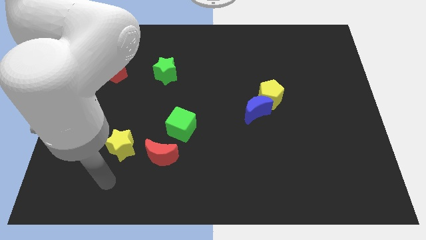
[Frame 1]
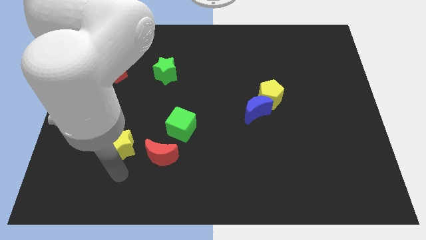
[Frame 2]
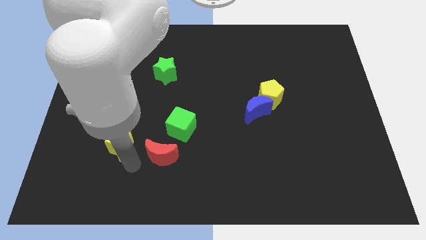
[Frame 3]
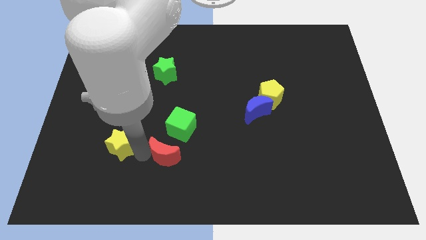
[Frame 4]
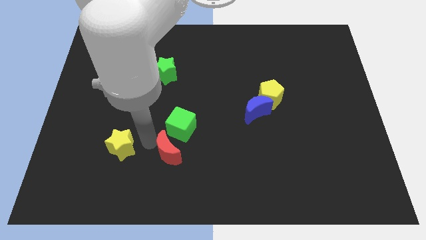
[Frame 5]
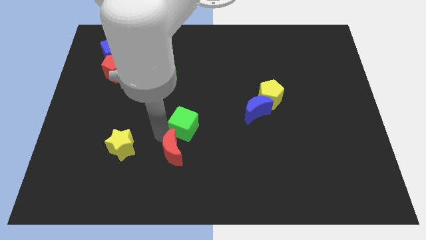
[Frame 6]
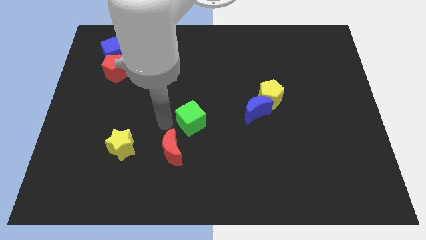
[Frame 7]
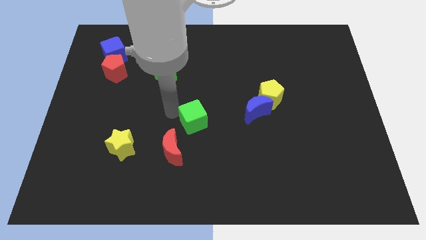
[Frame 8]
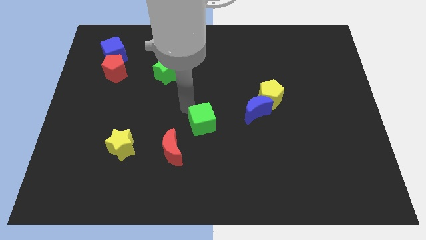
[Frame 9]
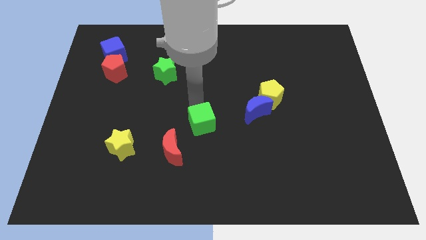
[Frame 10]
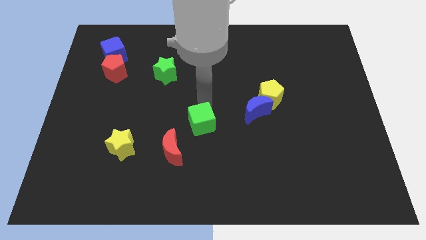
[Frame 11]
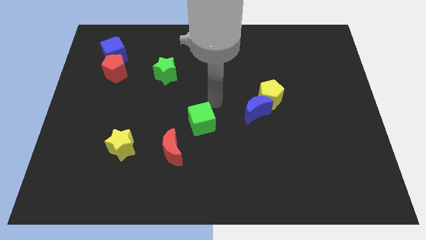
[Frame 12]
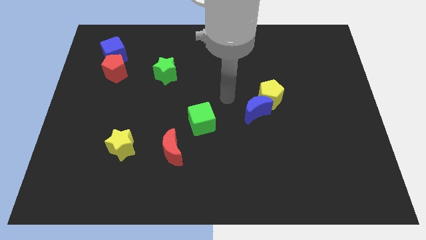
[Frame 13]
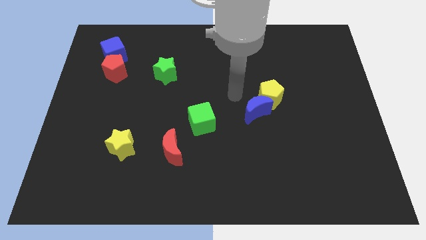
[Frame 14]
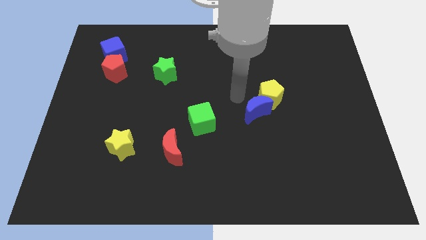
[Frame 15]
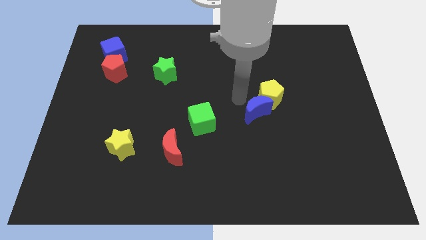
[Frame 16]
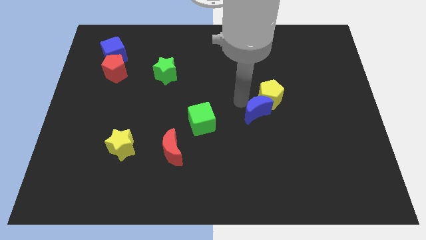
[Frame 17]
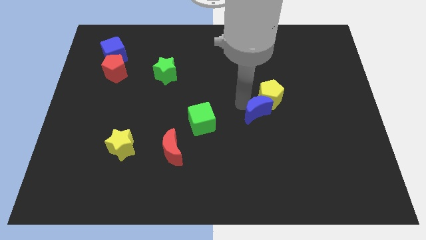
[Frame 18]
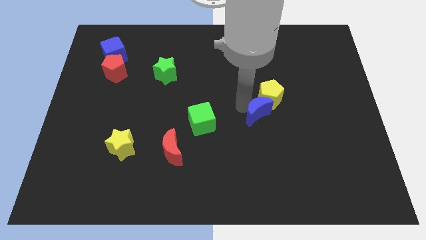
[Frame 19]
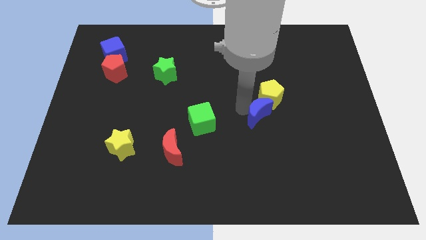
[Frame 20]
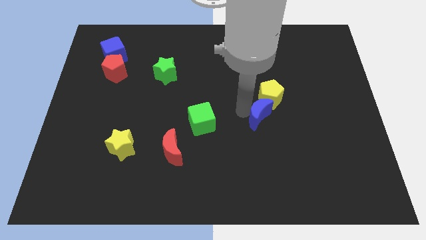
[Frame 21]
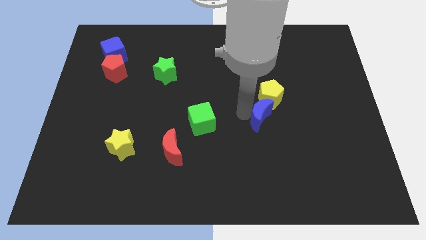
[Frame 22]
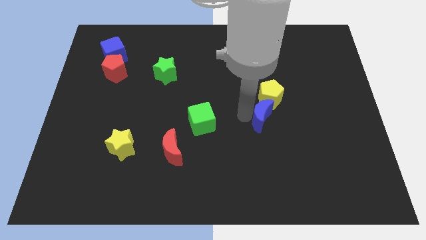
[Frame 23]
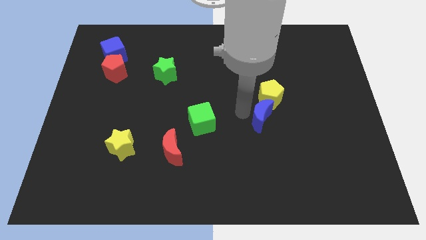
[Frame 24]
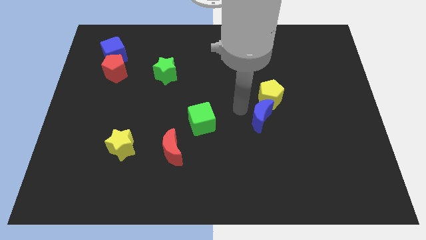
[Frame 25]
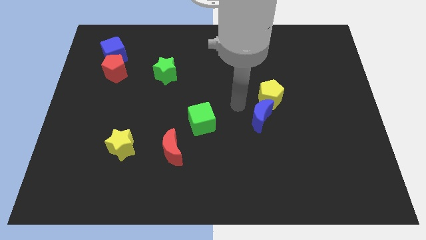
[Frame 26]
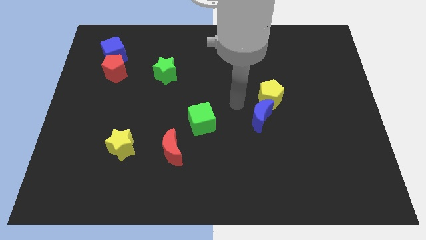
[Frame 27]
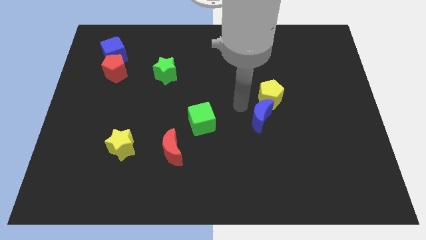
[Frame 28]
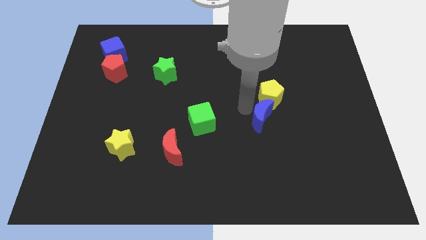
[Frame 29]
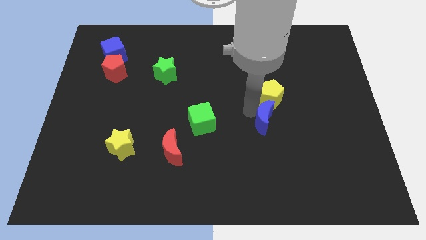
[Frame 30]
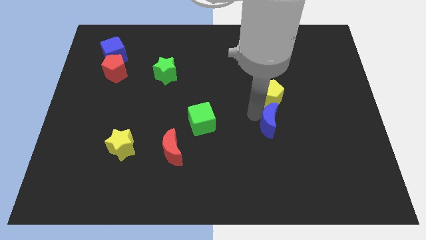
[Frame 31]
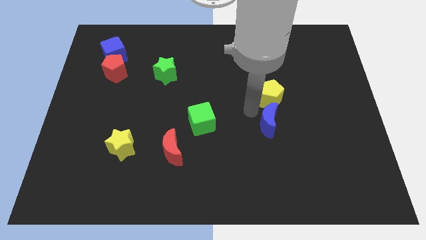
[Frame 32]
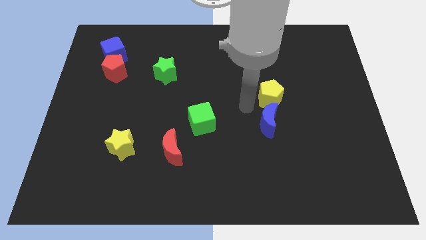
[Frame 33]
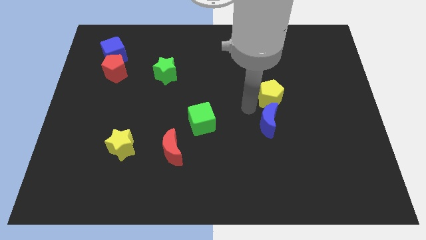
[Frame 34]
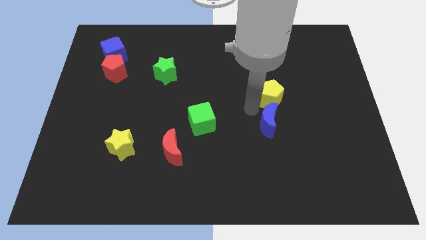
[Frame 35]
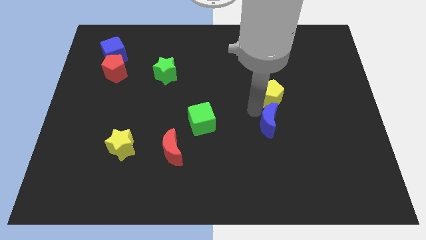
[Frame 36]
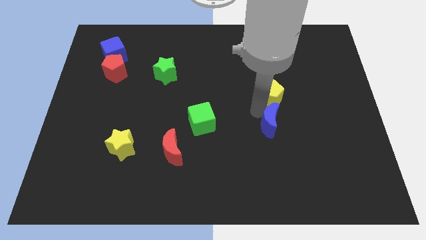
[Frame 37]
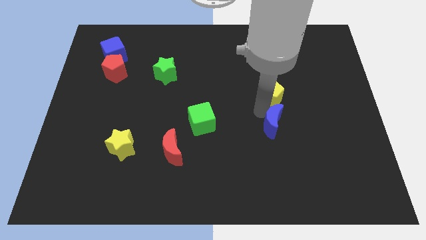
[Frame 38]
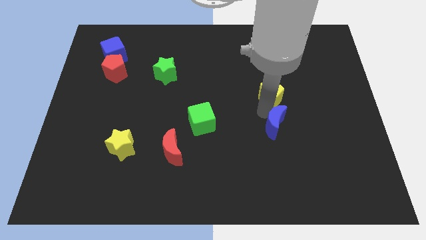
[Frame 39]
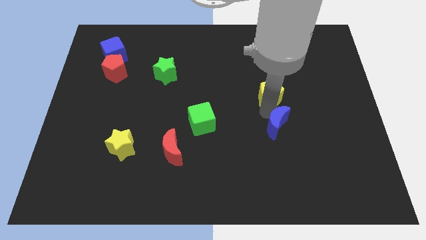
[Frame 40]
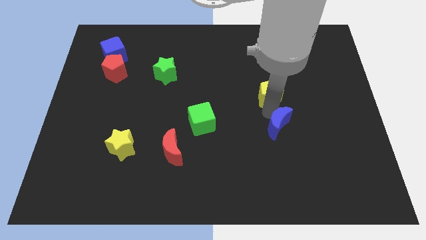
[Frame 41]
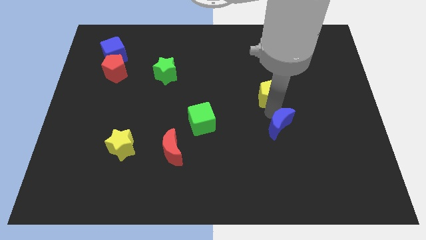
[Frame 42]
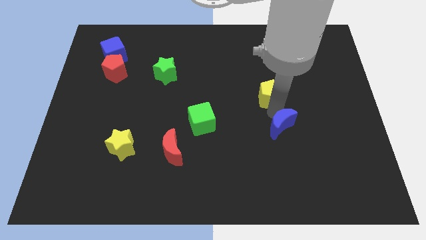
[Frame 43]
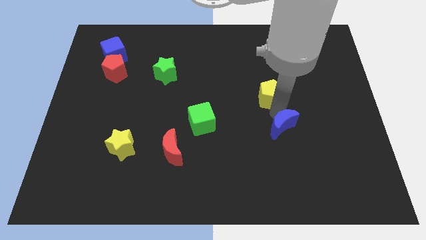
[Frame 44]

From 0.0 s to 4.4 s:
push the blue moon diagonally downwards and right slightly

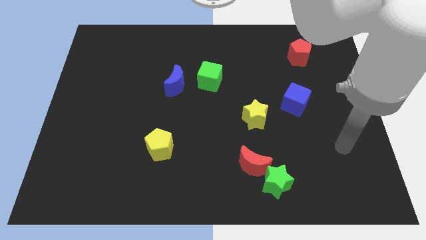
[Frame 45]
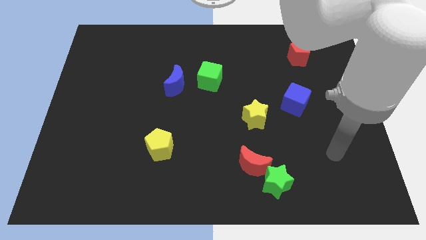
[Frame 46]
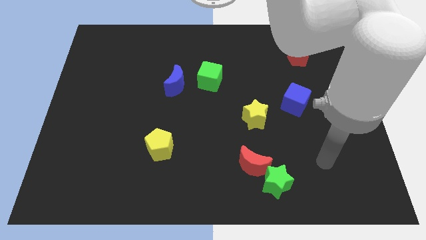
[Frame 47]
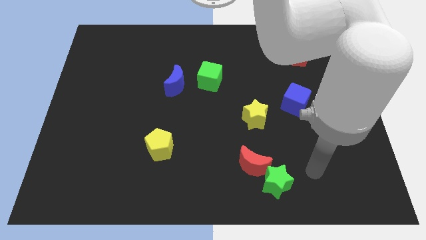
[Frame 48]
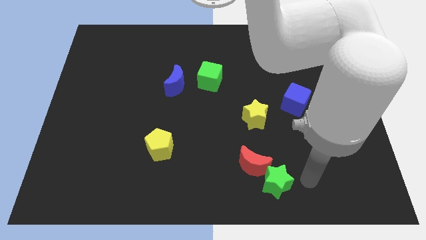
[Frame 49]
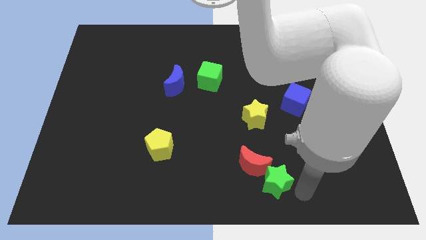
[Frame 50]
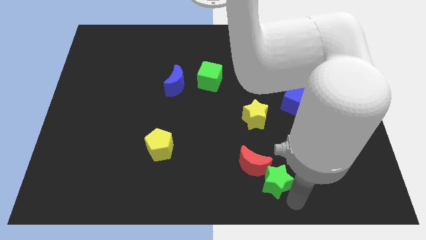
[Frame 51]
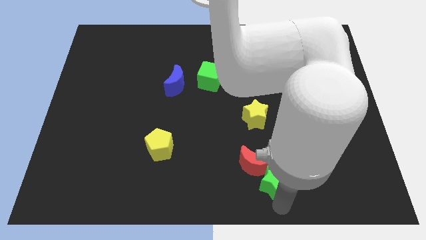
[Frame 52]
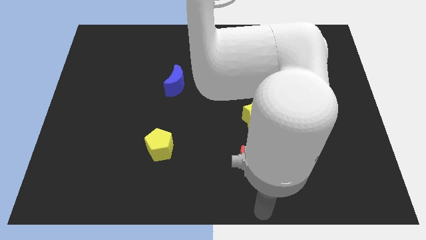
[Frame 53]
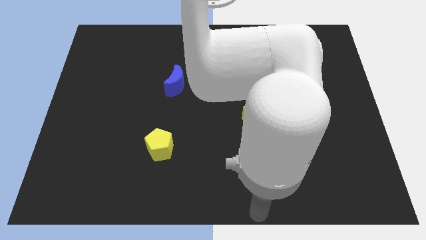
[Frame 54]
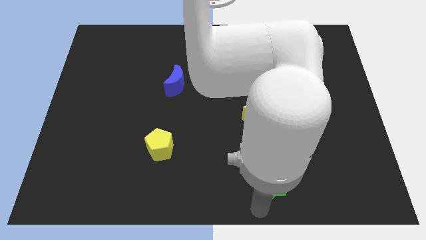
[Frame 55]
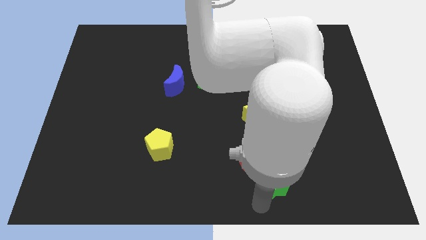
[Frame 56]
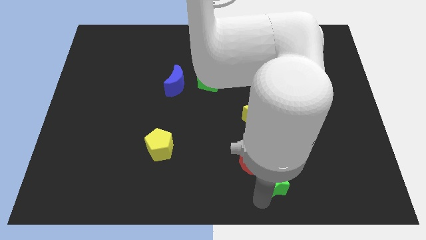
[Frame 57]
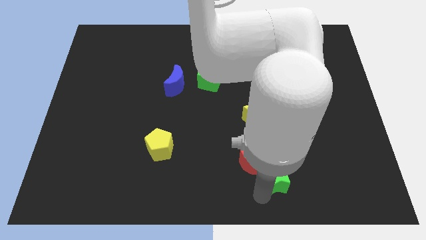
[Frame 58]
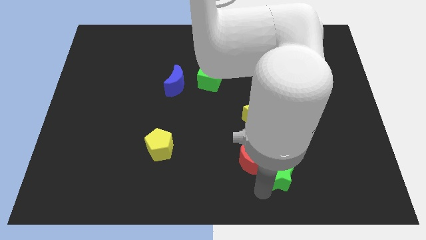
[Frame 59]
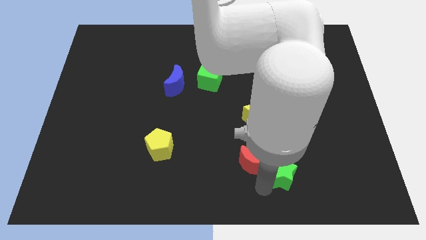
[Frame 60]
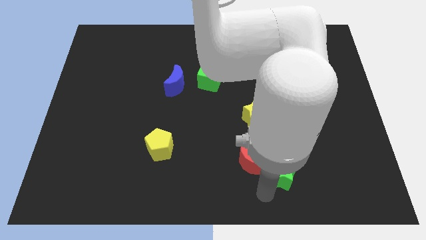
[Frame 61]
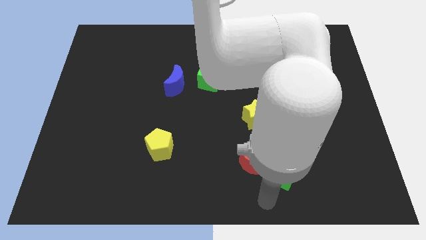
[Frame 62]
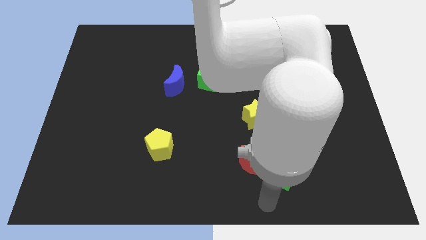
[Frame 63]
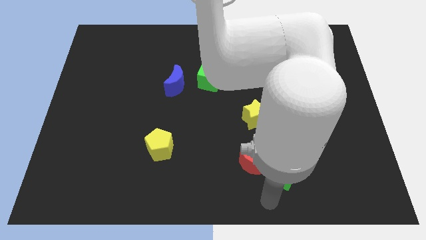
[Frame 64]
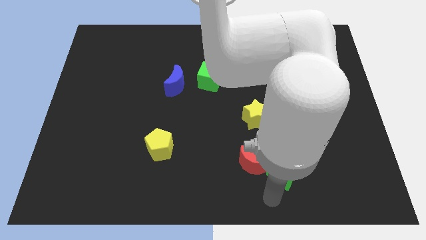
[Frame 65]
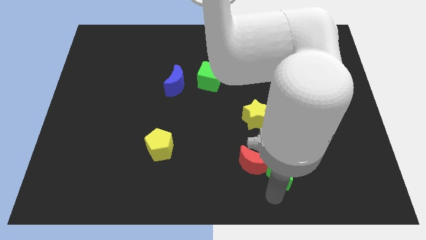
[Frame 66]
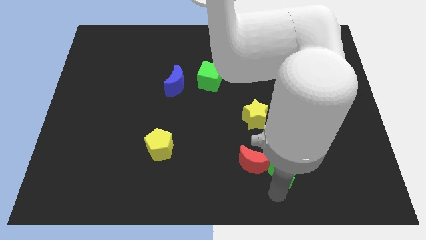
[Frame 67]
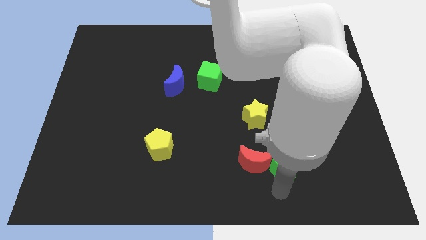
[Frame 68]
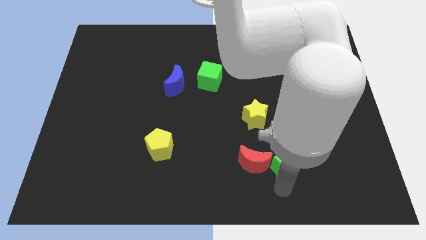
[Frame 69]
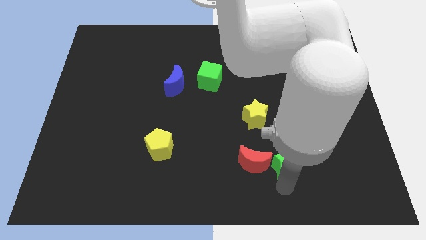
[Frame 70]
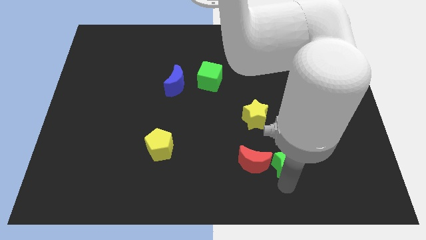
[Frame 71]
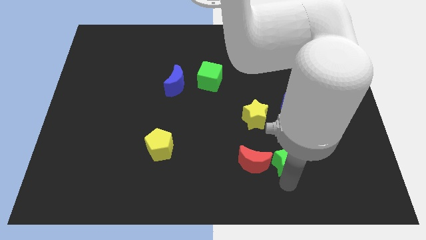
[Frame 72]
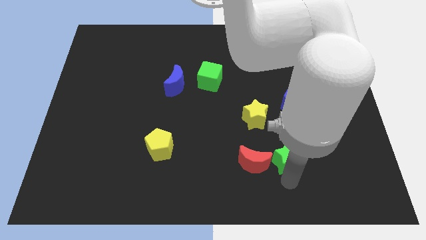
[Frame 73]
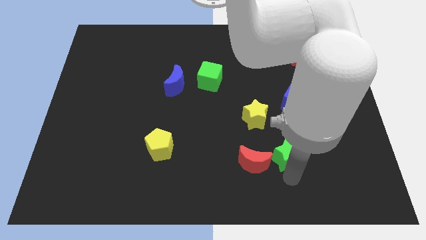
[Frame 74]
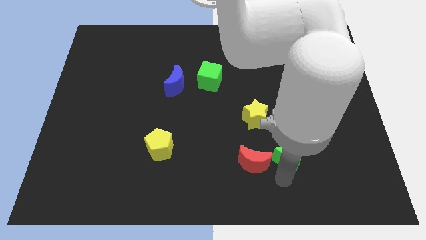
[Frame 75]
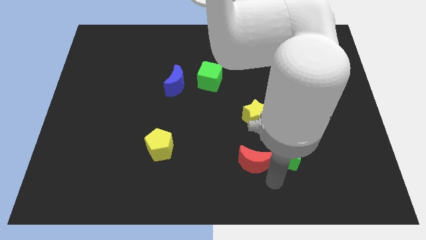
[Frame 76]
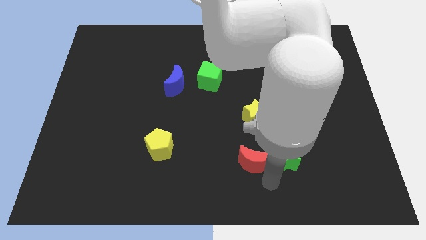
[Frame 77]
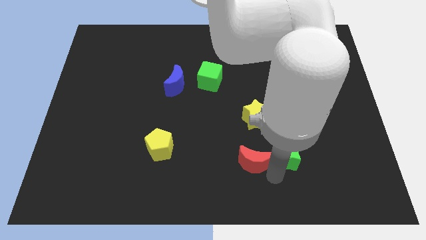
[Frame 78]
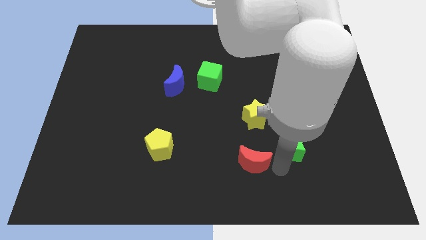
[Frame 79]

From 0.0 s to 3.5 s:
slide the green star upwards and then right somewhat

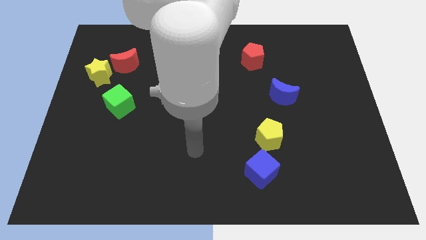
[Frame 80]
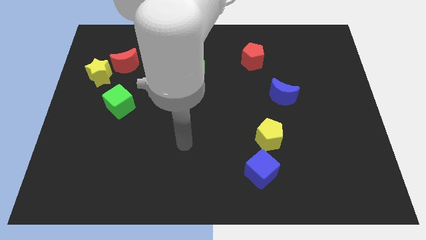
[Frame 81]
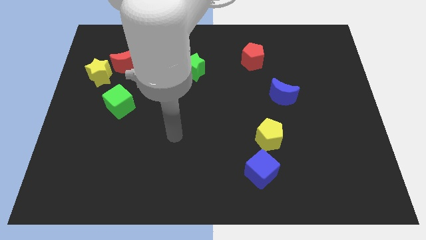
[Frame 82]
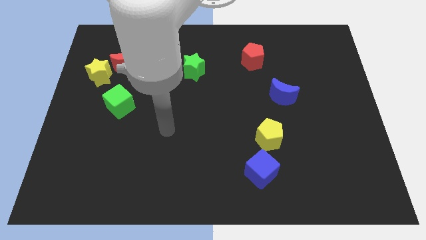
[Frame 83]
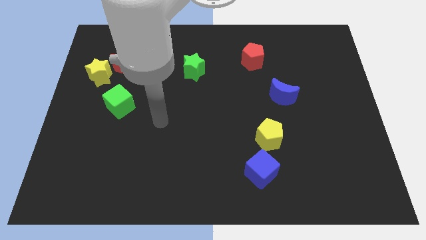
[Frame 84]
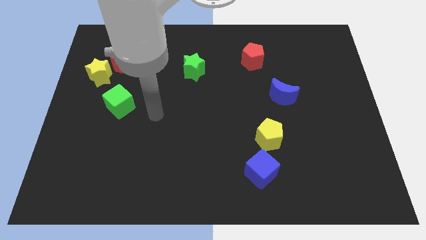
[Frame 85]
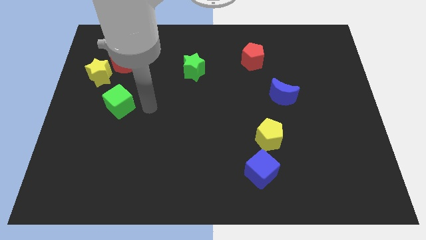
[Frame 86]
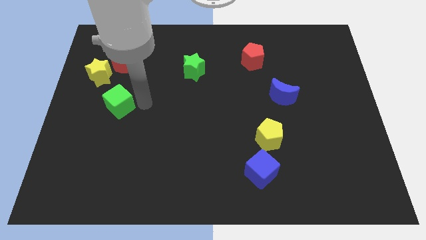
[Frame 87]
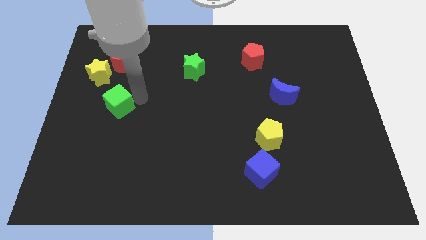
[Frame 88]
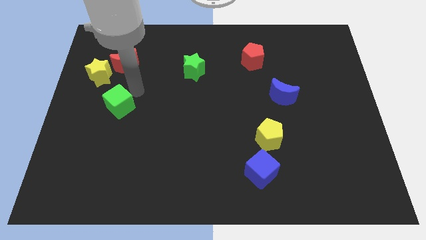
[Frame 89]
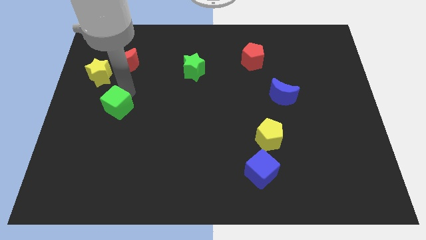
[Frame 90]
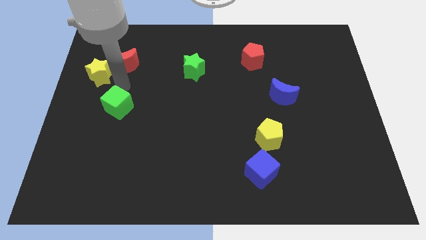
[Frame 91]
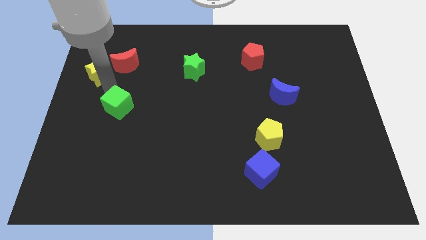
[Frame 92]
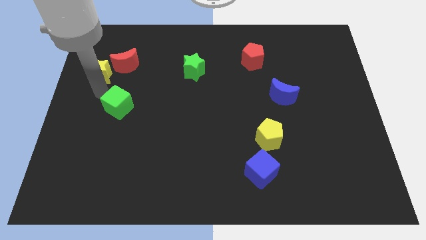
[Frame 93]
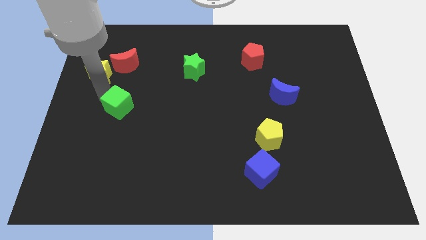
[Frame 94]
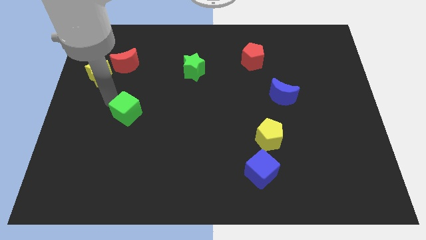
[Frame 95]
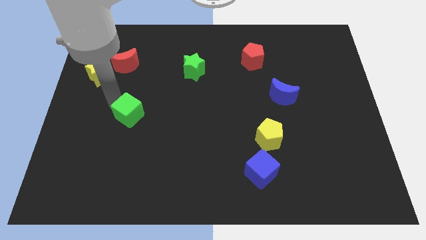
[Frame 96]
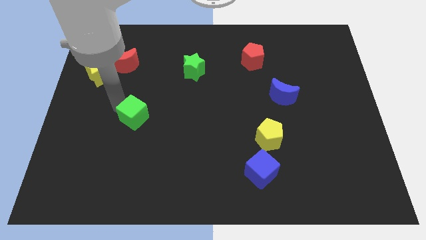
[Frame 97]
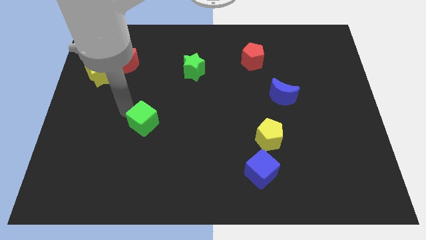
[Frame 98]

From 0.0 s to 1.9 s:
slide the green cube down and to the right slightly
